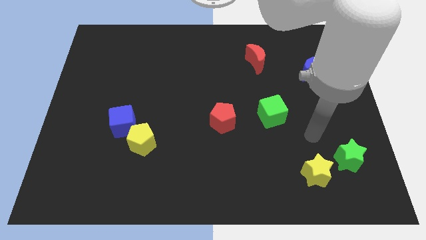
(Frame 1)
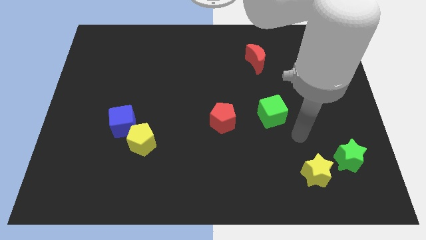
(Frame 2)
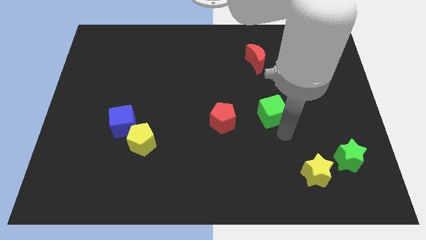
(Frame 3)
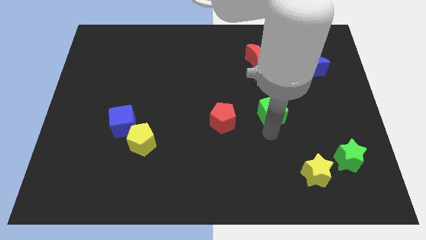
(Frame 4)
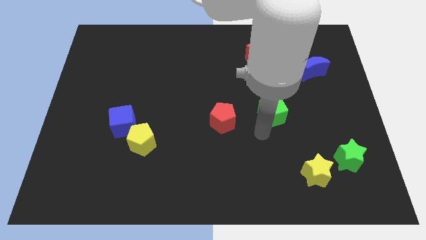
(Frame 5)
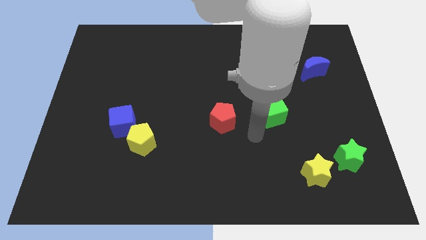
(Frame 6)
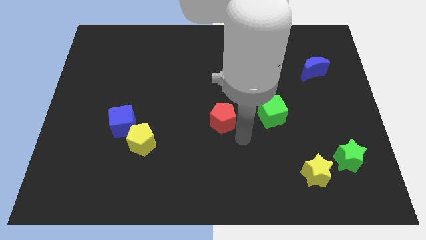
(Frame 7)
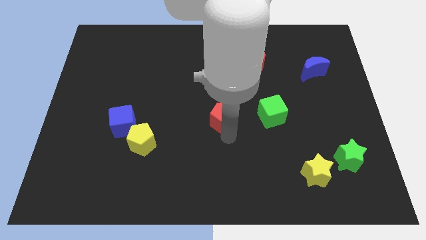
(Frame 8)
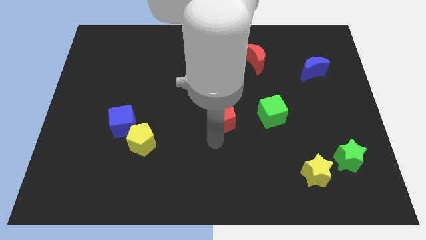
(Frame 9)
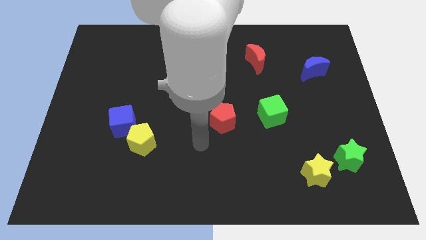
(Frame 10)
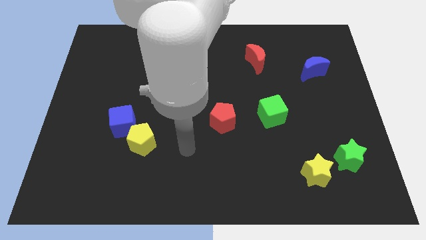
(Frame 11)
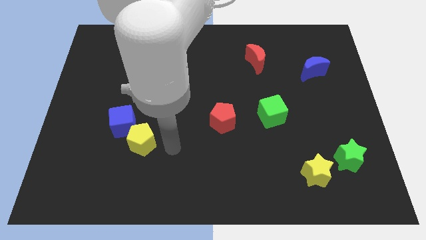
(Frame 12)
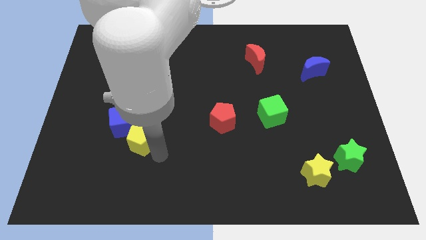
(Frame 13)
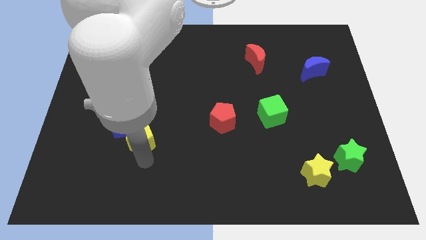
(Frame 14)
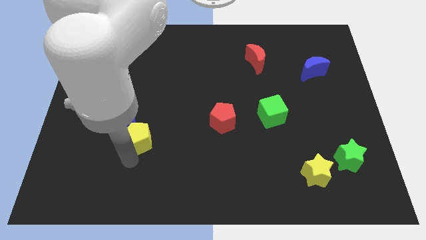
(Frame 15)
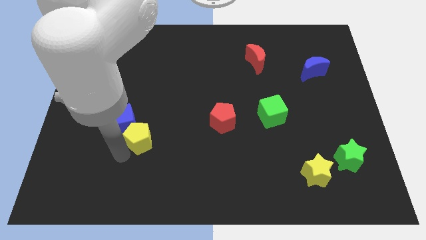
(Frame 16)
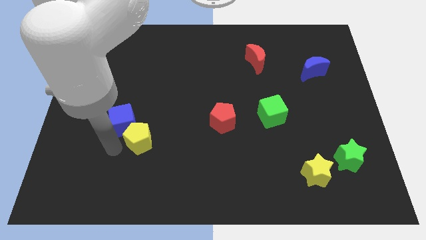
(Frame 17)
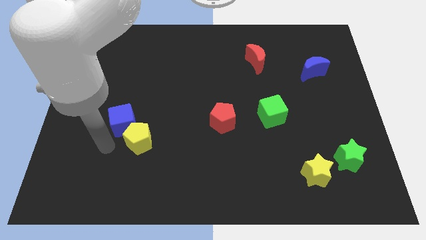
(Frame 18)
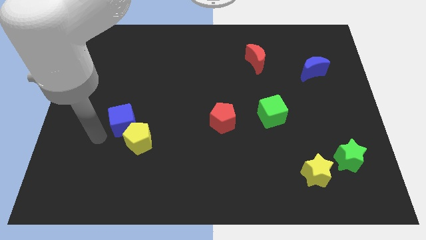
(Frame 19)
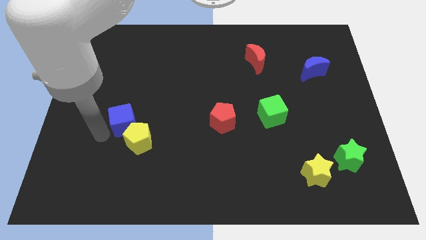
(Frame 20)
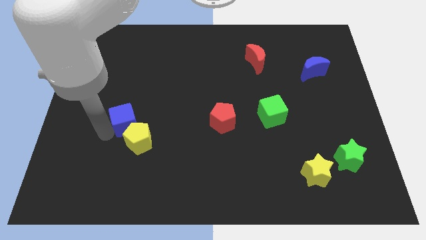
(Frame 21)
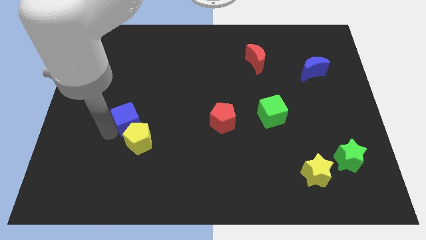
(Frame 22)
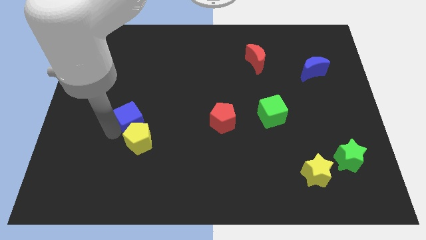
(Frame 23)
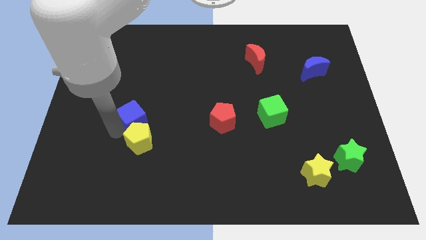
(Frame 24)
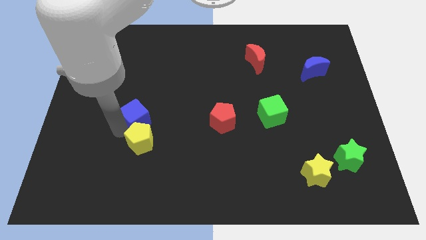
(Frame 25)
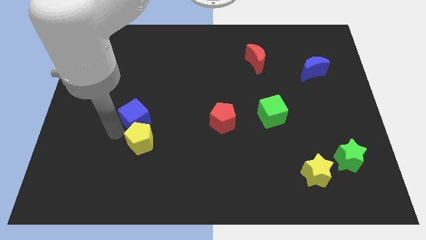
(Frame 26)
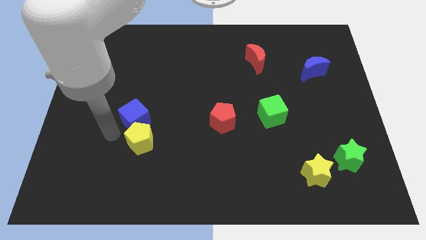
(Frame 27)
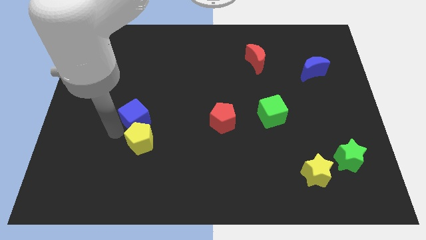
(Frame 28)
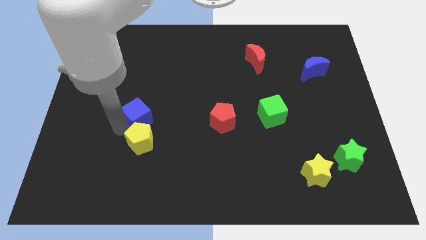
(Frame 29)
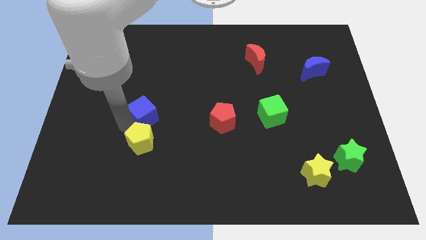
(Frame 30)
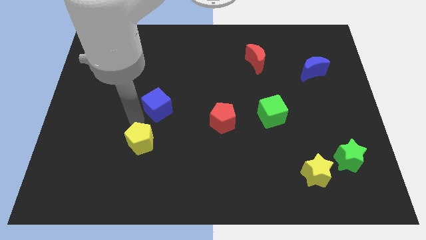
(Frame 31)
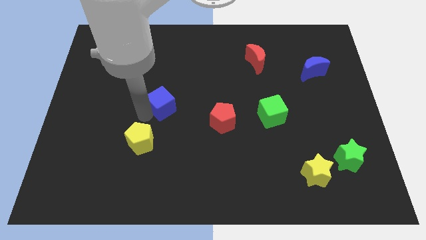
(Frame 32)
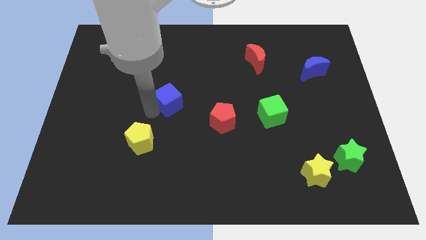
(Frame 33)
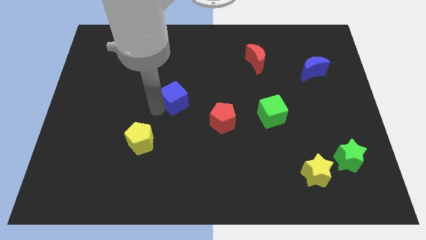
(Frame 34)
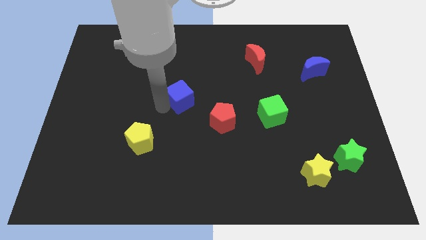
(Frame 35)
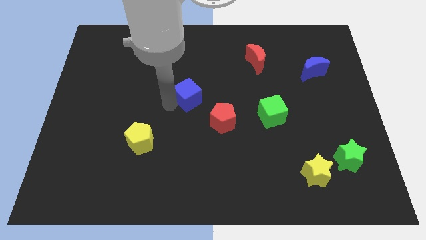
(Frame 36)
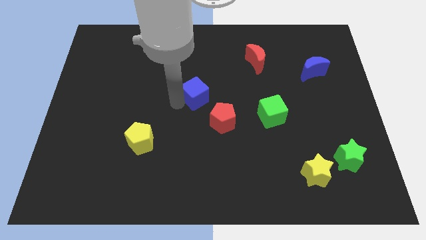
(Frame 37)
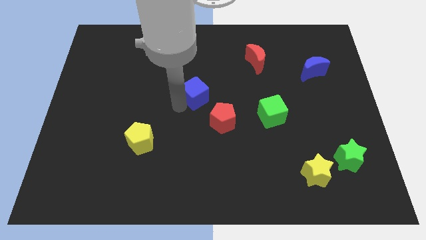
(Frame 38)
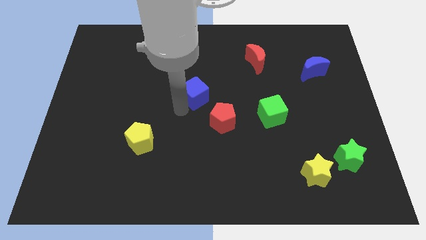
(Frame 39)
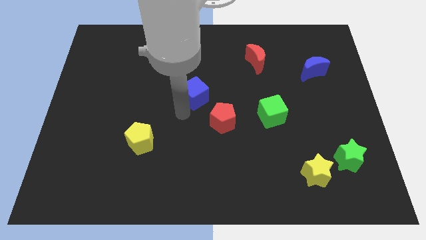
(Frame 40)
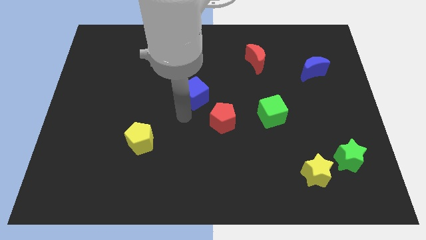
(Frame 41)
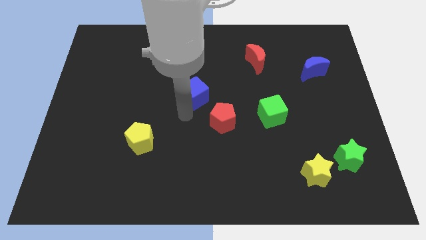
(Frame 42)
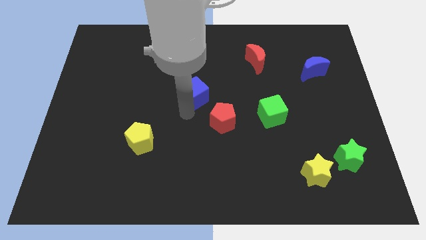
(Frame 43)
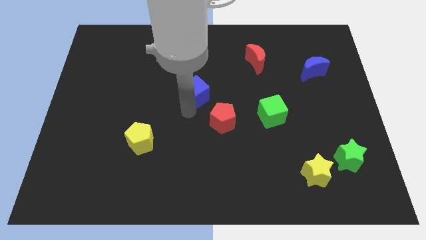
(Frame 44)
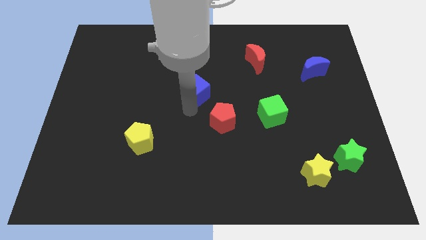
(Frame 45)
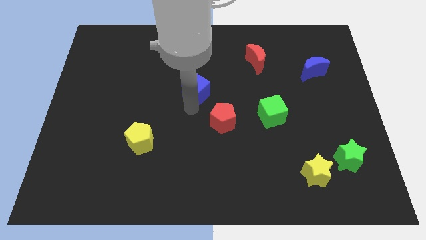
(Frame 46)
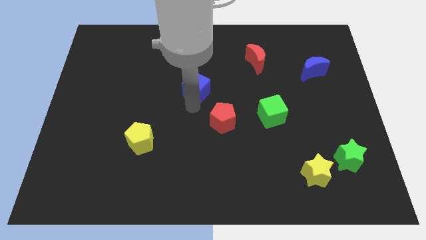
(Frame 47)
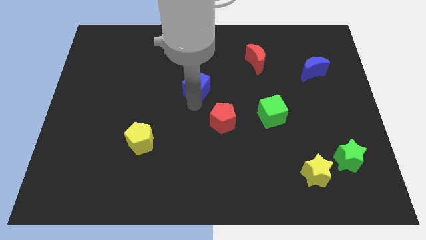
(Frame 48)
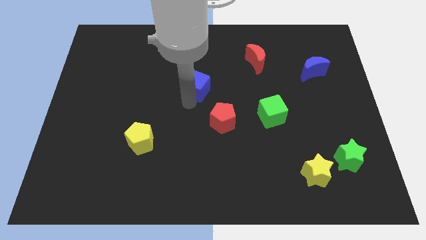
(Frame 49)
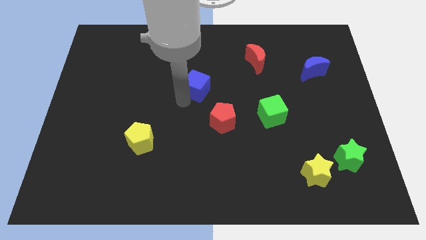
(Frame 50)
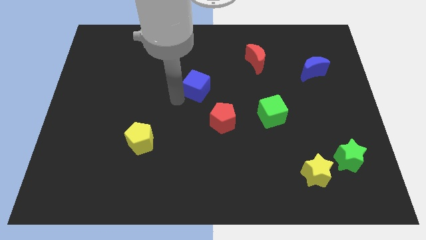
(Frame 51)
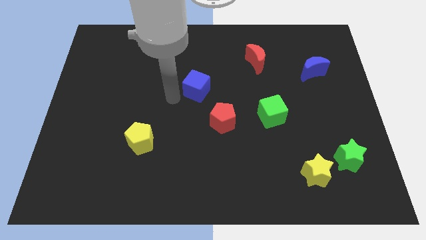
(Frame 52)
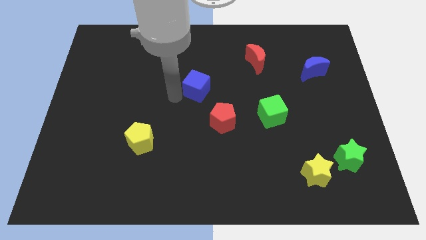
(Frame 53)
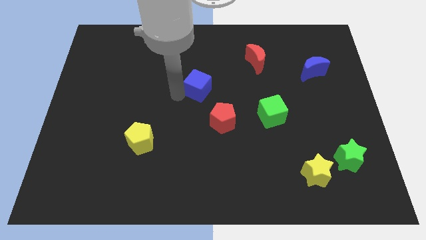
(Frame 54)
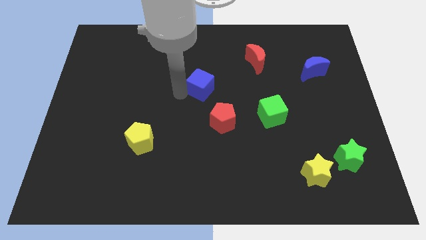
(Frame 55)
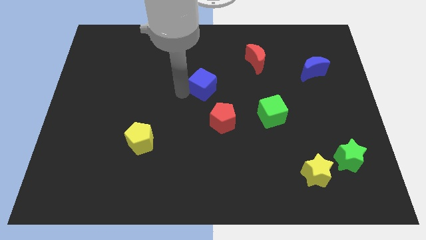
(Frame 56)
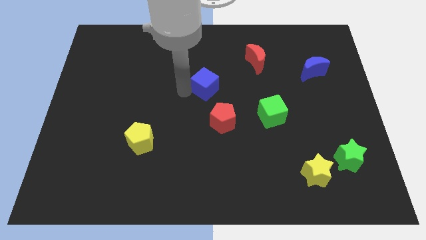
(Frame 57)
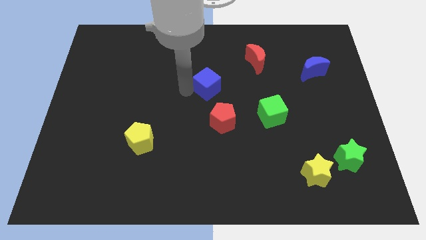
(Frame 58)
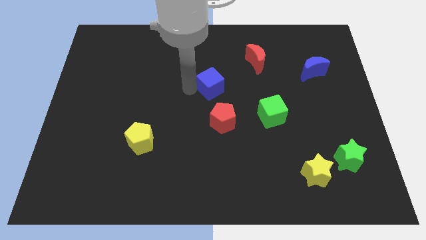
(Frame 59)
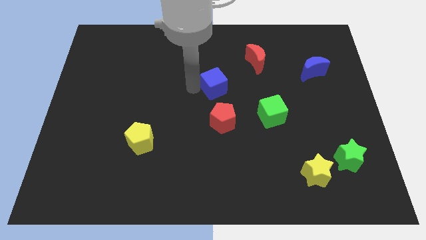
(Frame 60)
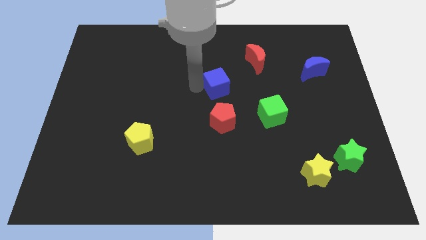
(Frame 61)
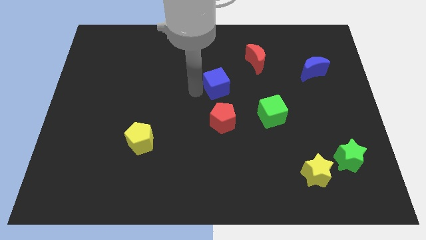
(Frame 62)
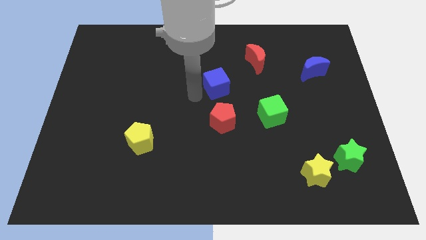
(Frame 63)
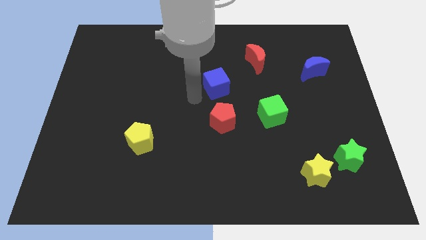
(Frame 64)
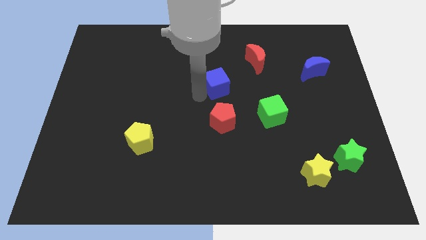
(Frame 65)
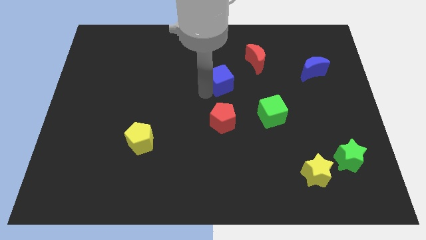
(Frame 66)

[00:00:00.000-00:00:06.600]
slide the blue cube to the bottom left side of the red moon
